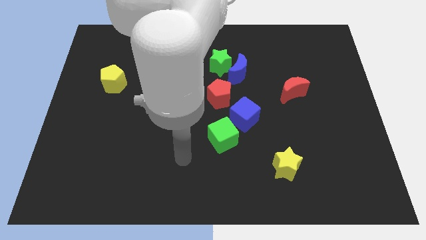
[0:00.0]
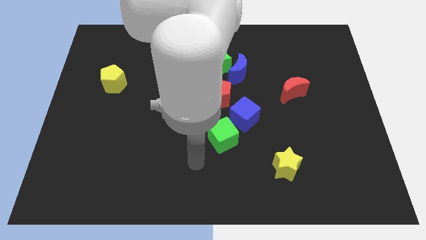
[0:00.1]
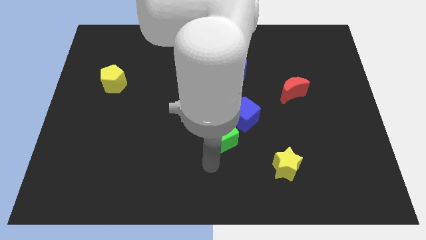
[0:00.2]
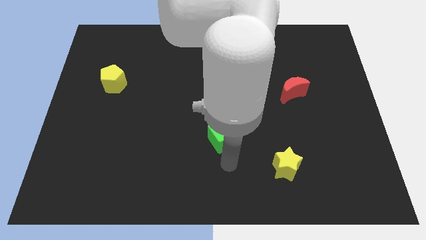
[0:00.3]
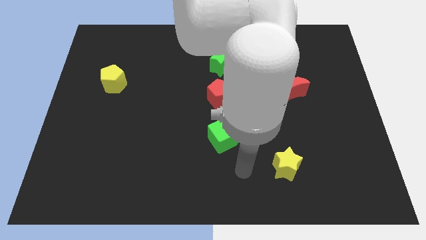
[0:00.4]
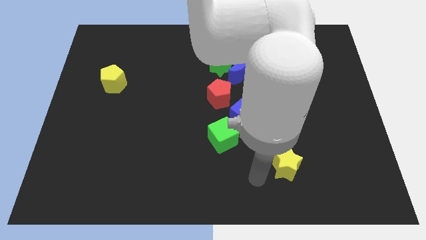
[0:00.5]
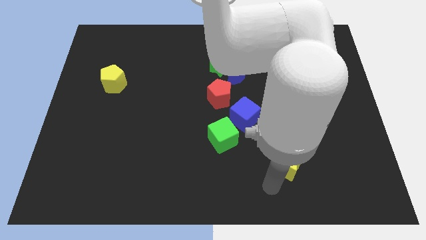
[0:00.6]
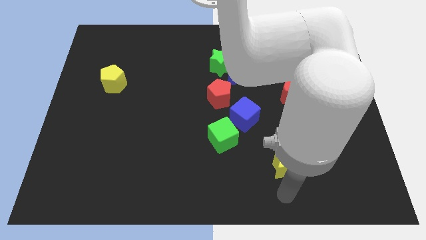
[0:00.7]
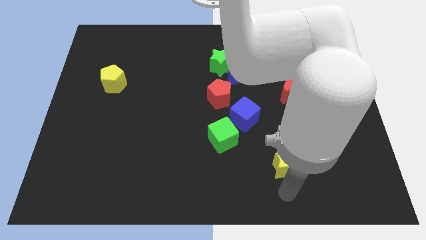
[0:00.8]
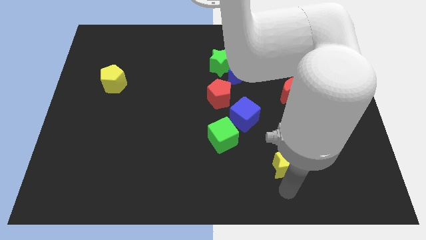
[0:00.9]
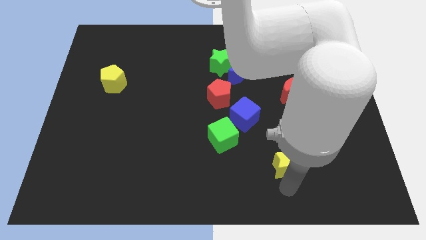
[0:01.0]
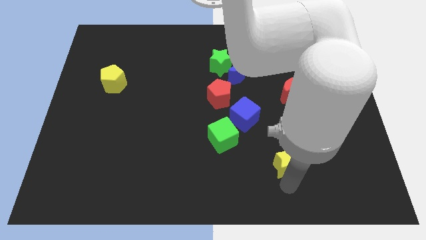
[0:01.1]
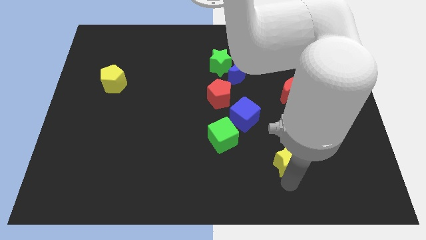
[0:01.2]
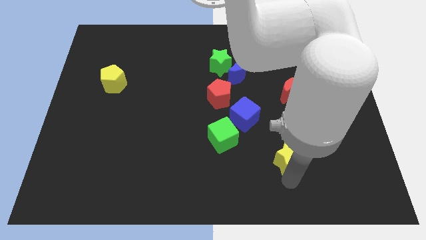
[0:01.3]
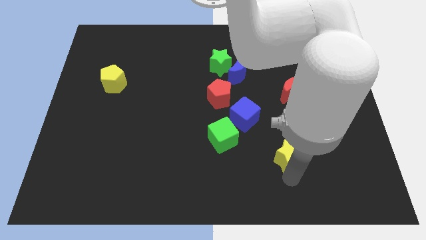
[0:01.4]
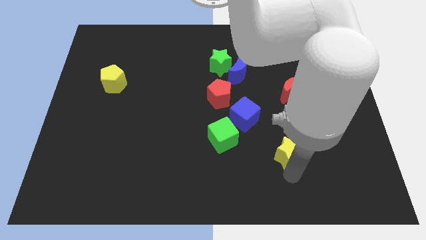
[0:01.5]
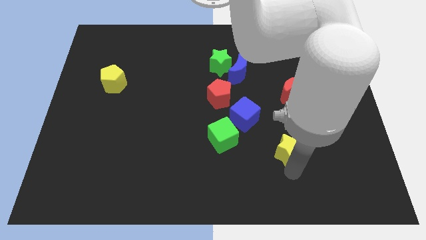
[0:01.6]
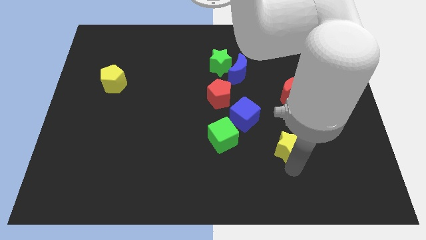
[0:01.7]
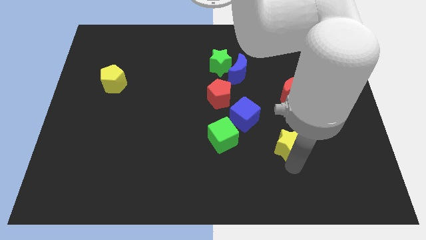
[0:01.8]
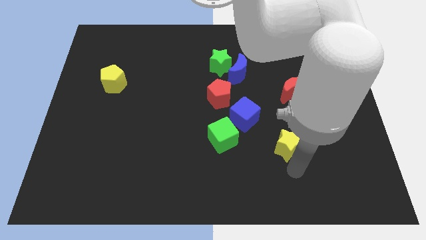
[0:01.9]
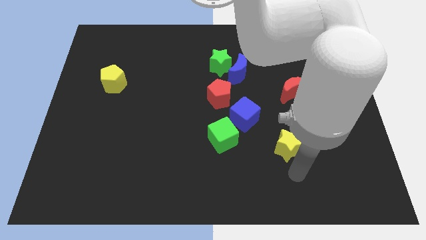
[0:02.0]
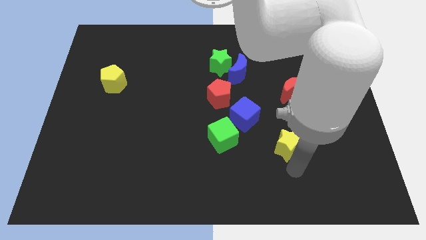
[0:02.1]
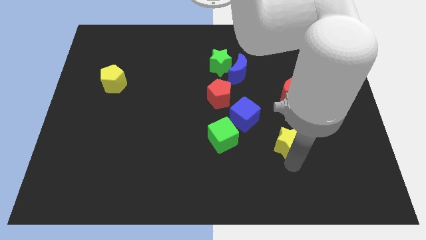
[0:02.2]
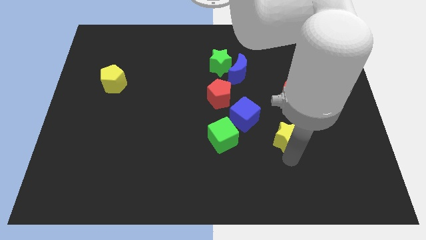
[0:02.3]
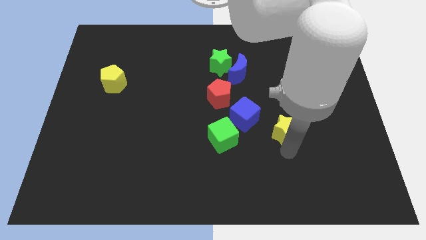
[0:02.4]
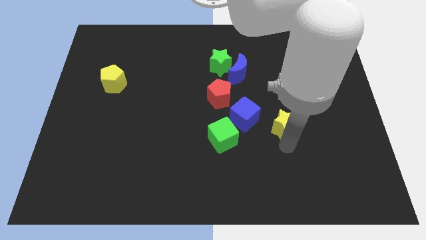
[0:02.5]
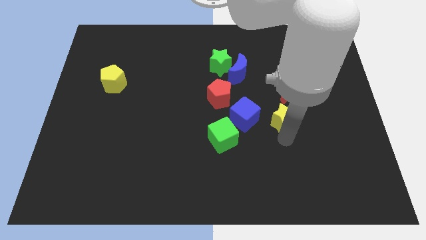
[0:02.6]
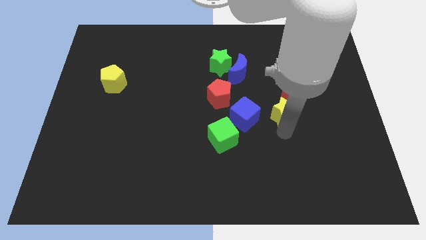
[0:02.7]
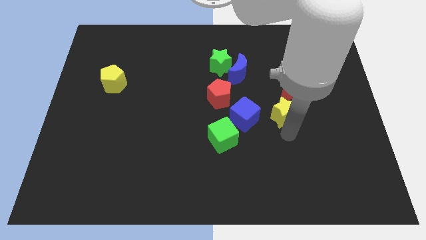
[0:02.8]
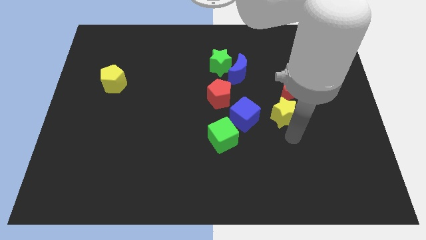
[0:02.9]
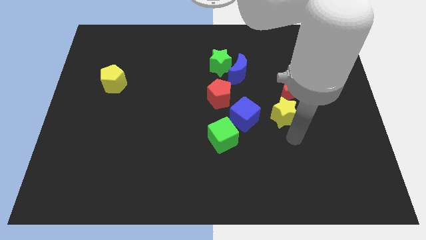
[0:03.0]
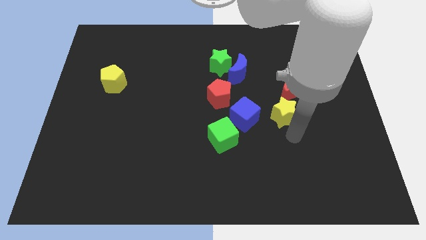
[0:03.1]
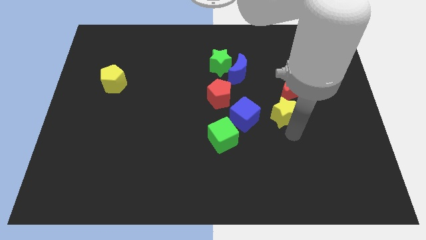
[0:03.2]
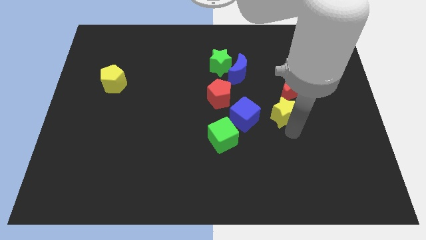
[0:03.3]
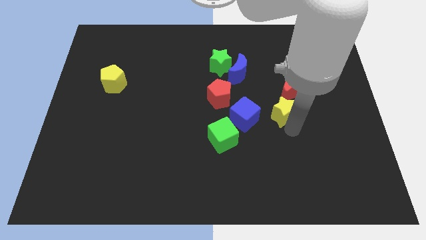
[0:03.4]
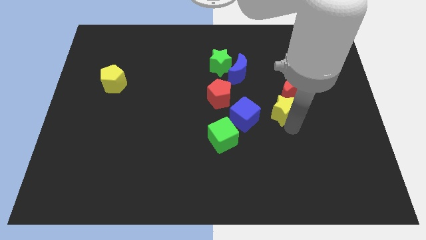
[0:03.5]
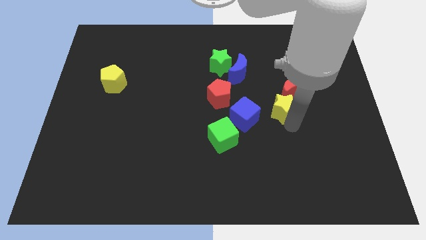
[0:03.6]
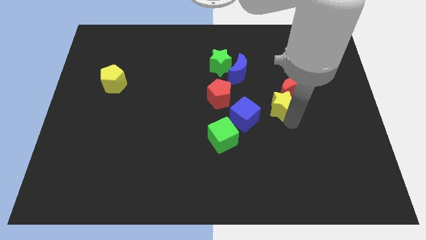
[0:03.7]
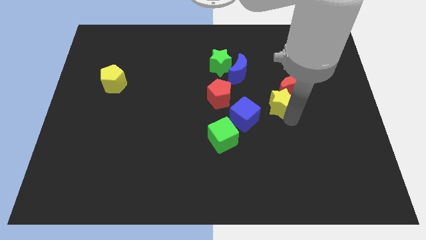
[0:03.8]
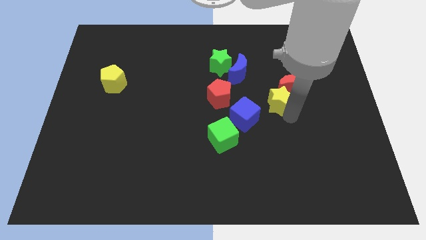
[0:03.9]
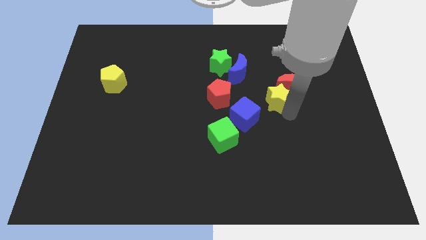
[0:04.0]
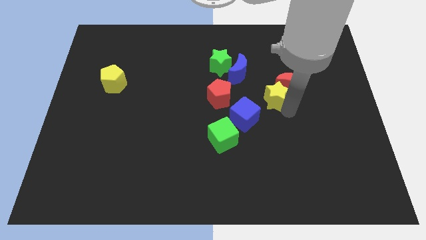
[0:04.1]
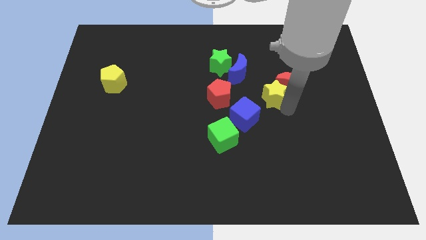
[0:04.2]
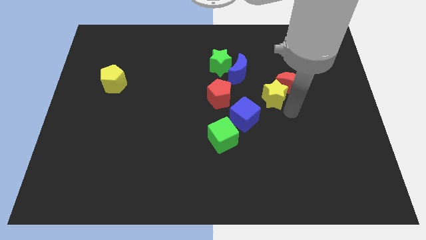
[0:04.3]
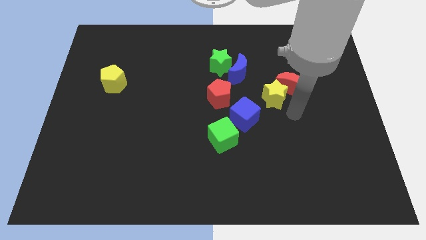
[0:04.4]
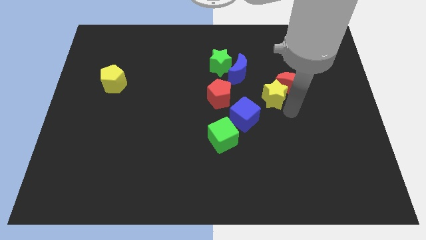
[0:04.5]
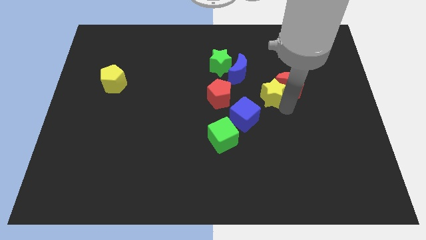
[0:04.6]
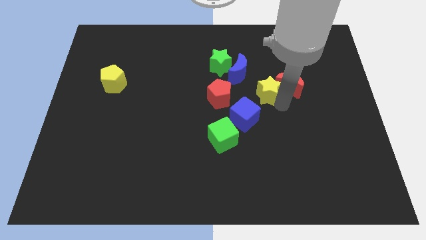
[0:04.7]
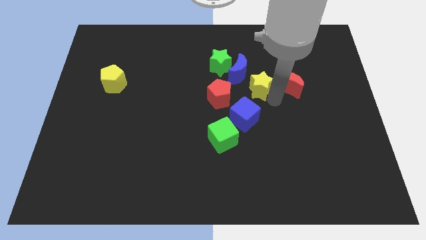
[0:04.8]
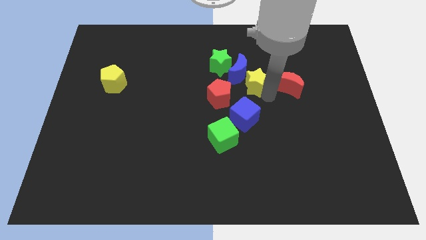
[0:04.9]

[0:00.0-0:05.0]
move the yellow star towards the blue moon

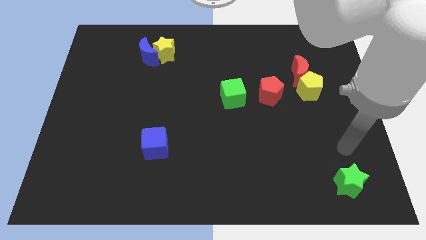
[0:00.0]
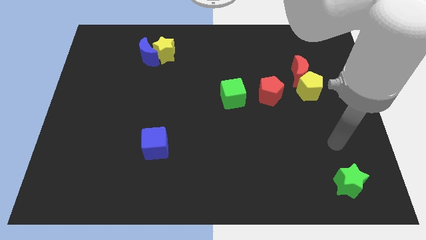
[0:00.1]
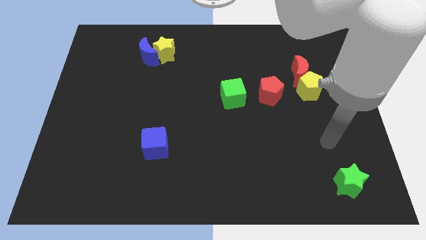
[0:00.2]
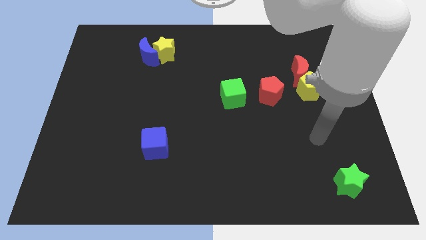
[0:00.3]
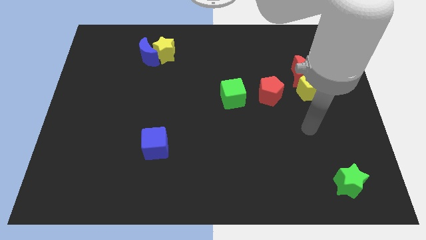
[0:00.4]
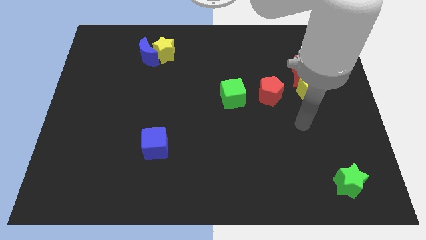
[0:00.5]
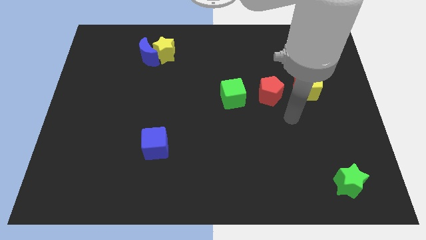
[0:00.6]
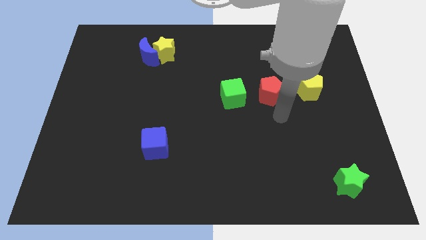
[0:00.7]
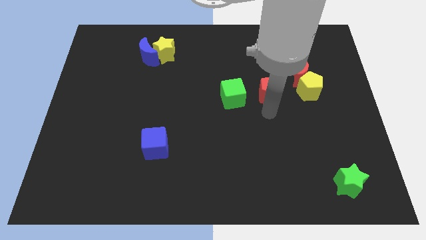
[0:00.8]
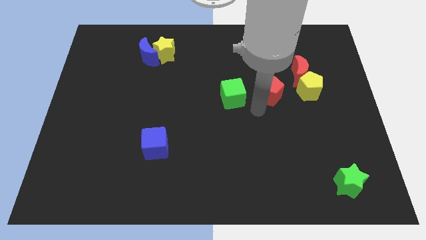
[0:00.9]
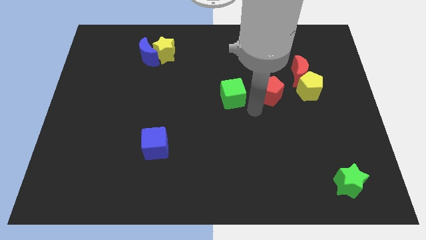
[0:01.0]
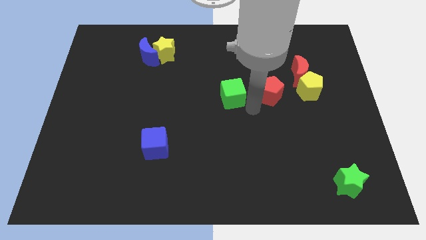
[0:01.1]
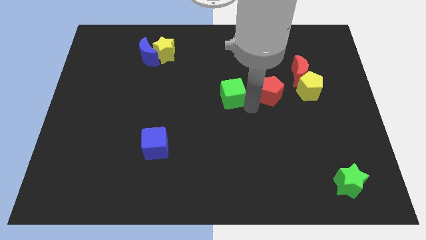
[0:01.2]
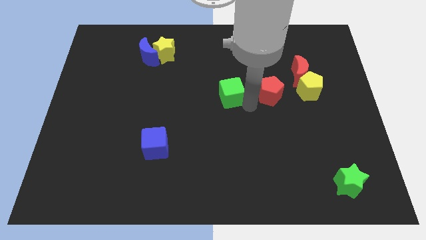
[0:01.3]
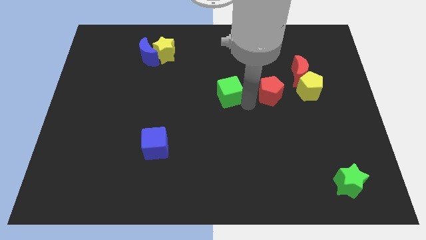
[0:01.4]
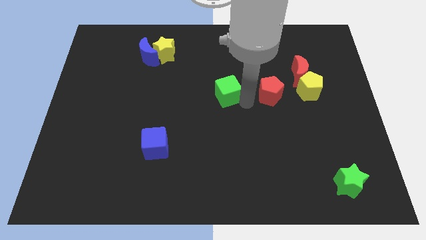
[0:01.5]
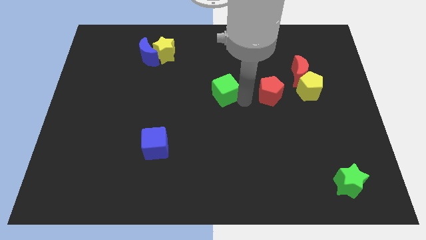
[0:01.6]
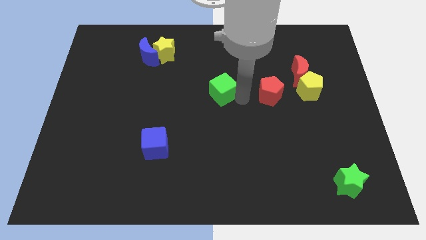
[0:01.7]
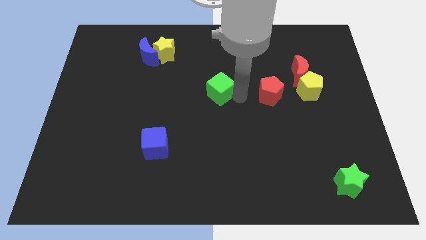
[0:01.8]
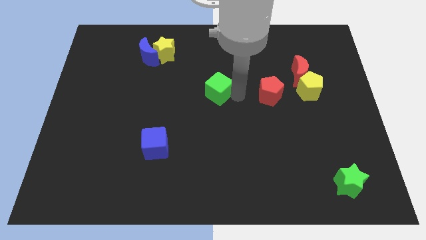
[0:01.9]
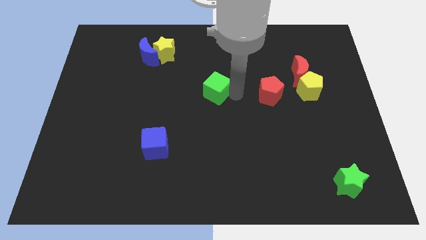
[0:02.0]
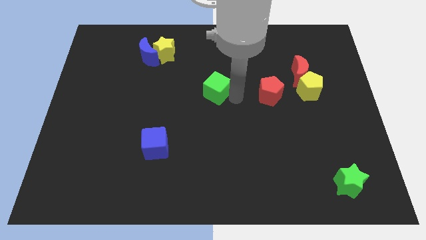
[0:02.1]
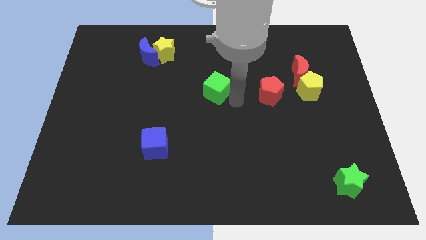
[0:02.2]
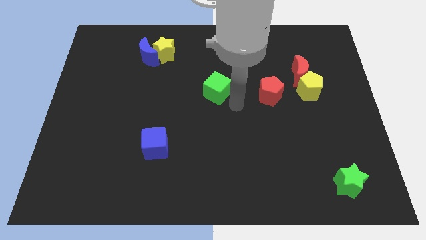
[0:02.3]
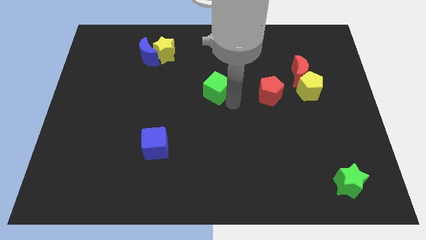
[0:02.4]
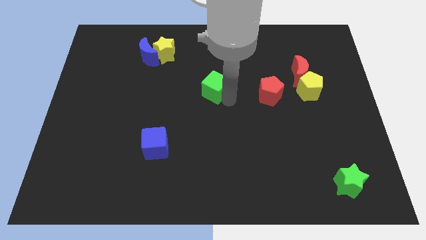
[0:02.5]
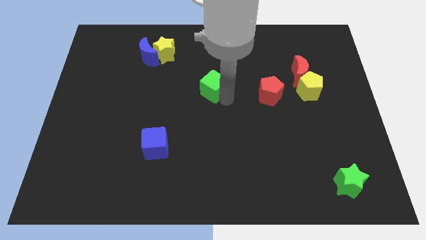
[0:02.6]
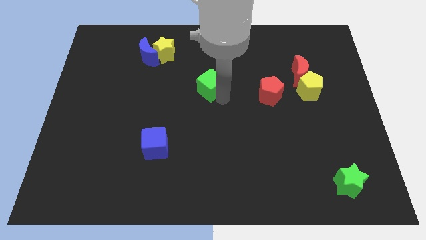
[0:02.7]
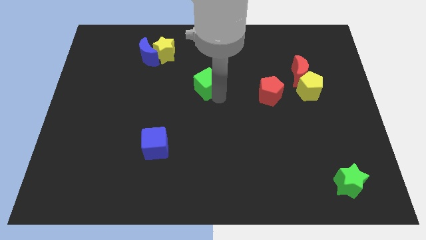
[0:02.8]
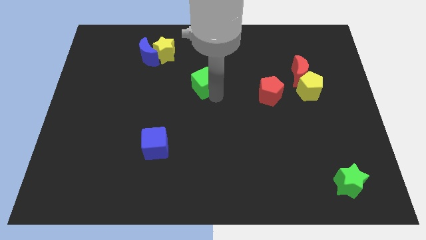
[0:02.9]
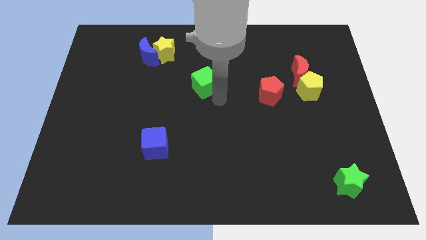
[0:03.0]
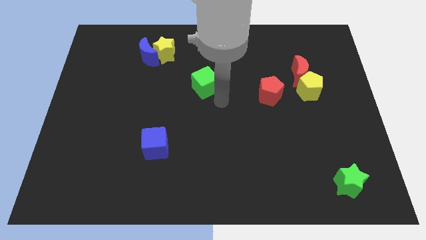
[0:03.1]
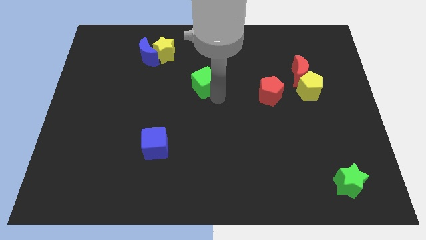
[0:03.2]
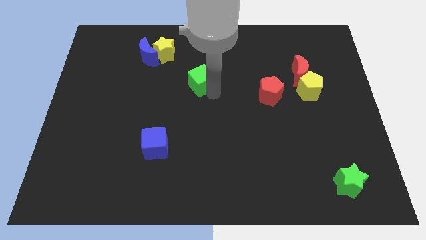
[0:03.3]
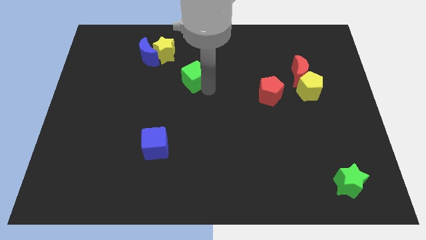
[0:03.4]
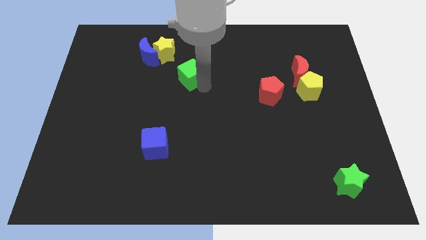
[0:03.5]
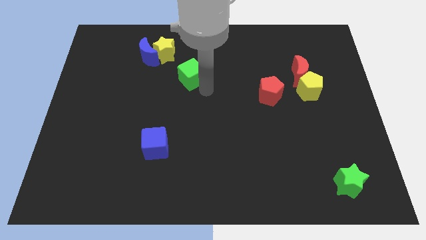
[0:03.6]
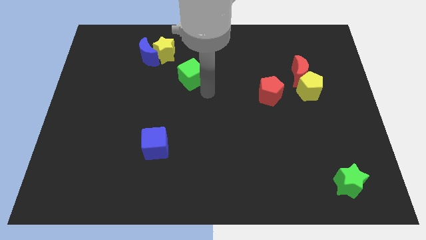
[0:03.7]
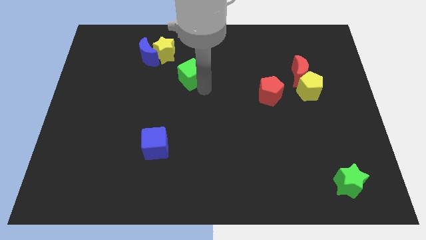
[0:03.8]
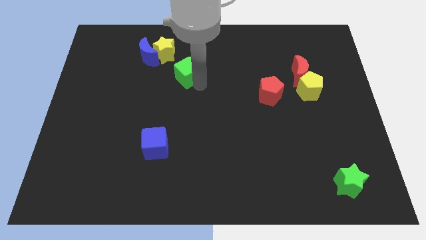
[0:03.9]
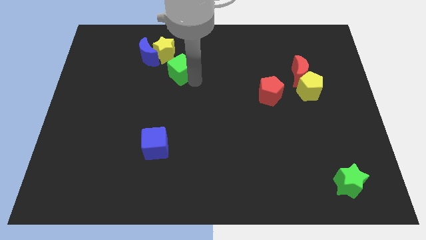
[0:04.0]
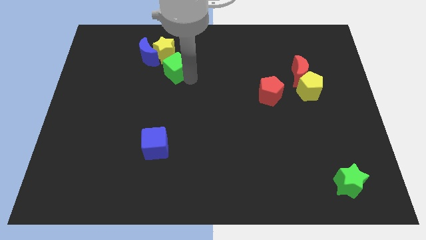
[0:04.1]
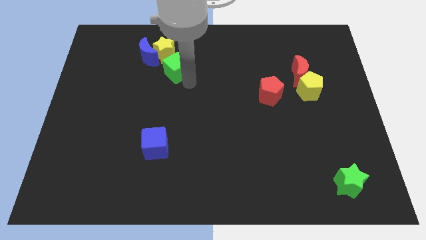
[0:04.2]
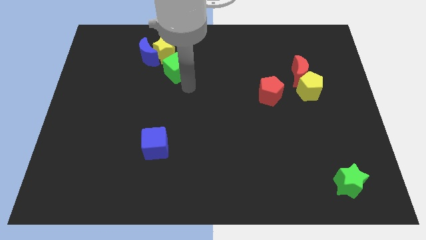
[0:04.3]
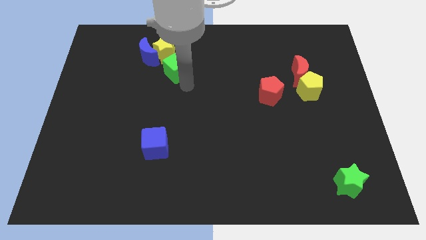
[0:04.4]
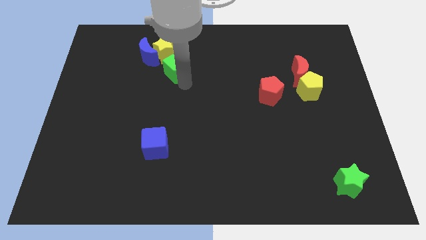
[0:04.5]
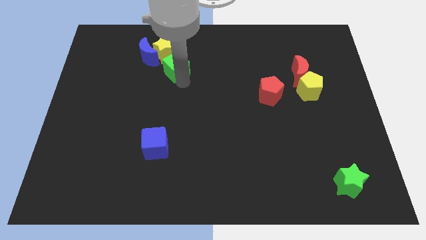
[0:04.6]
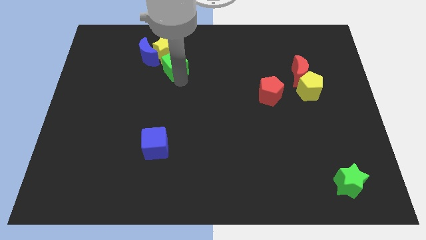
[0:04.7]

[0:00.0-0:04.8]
slide the green cube to the yellow star
